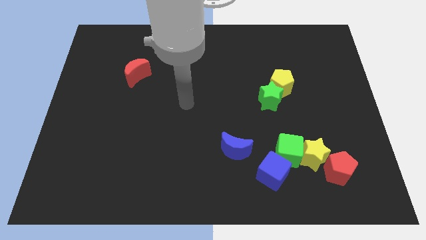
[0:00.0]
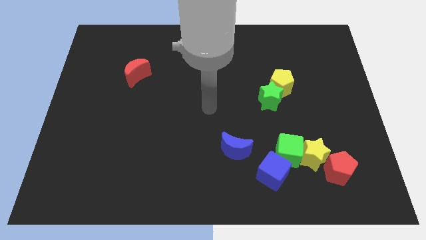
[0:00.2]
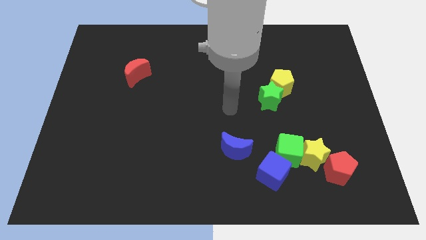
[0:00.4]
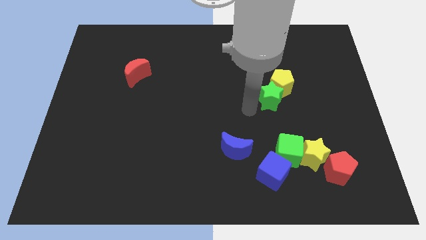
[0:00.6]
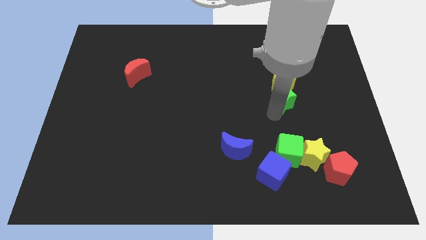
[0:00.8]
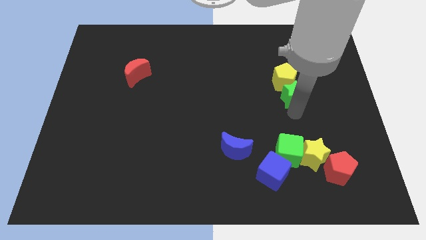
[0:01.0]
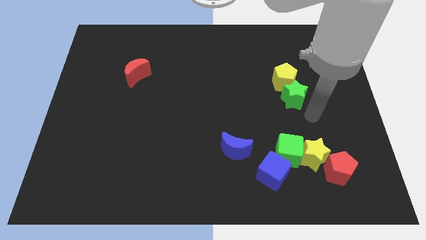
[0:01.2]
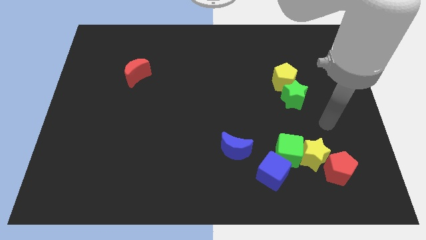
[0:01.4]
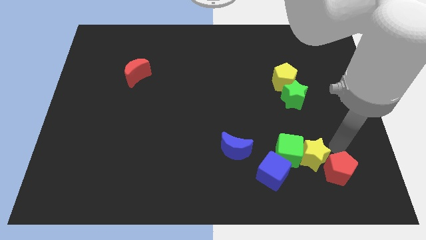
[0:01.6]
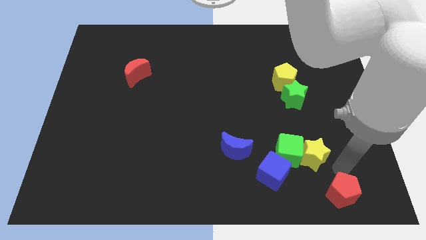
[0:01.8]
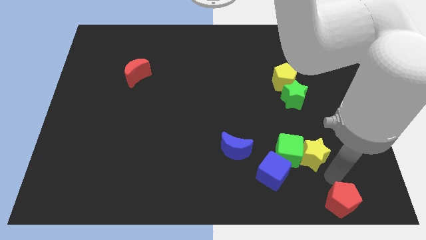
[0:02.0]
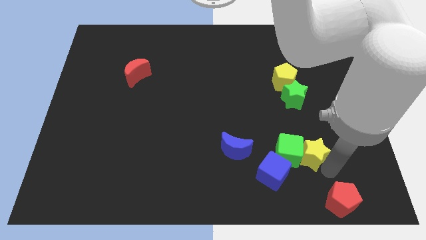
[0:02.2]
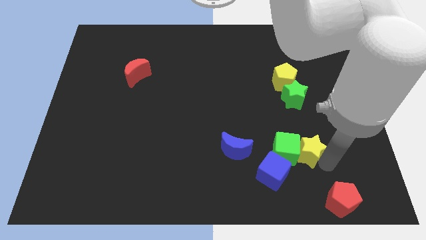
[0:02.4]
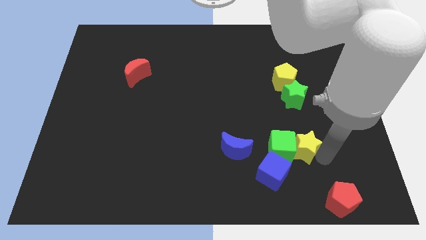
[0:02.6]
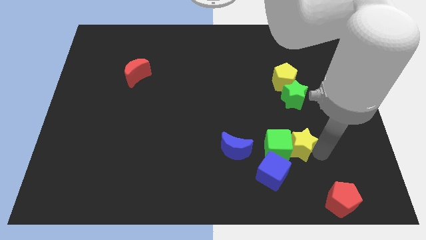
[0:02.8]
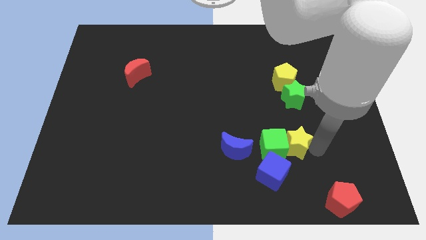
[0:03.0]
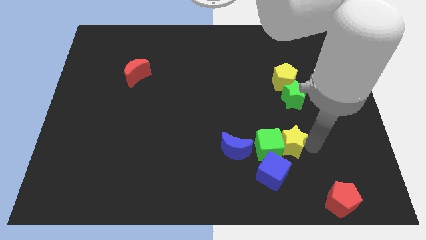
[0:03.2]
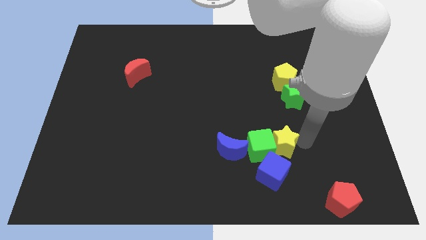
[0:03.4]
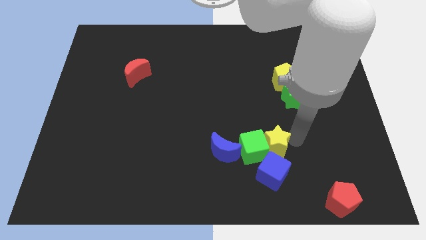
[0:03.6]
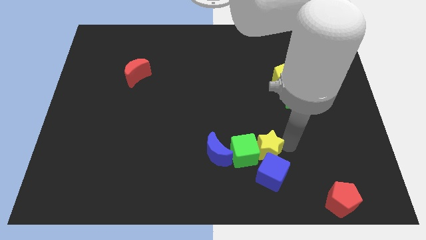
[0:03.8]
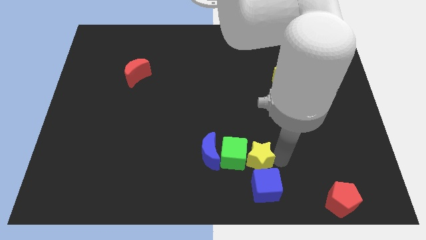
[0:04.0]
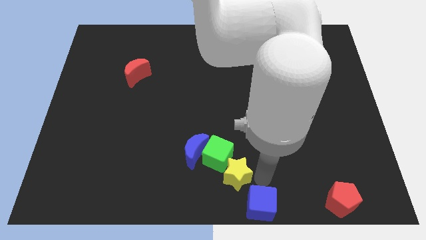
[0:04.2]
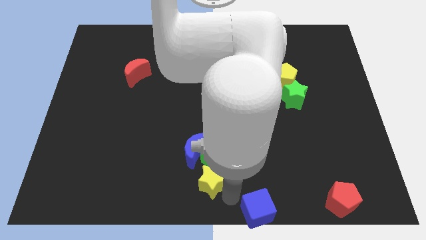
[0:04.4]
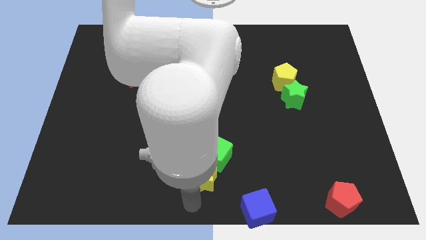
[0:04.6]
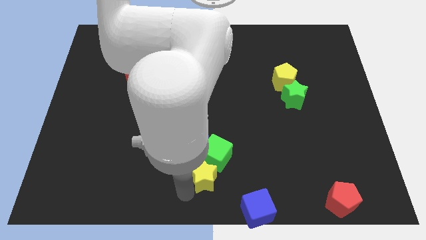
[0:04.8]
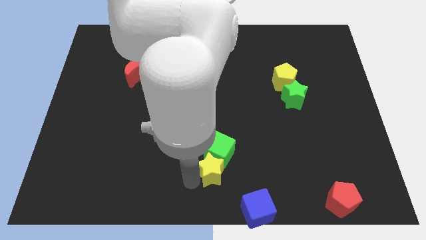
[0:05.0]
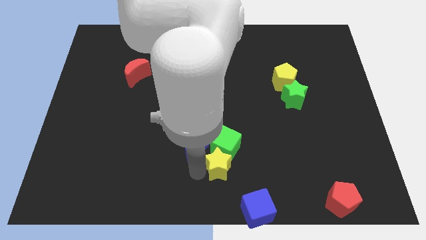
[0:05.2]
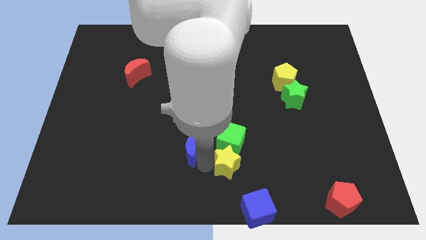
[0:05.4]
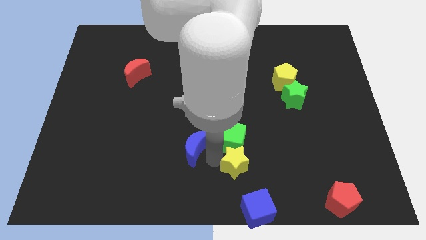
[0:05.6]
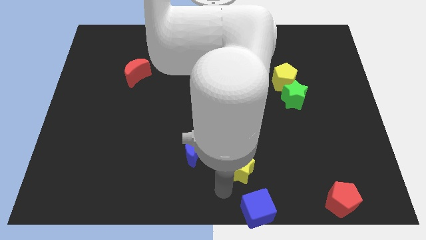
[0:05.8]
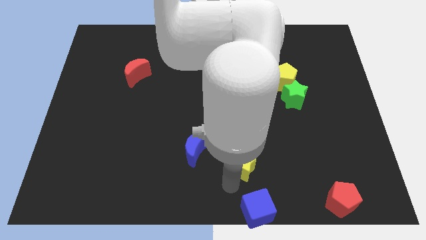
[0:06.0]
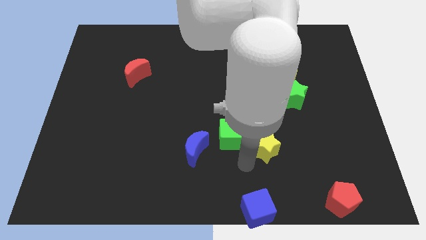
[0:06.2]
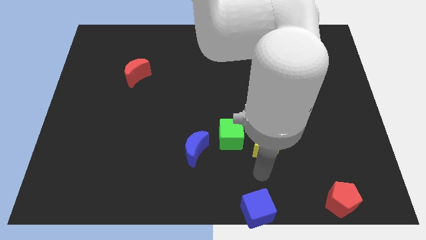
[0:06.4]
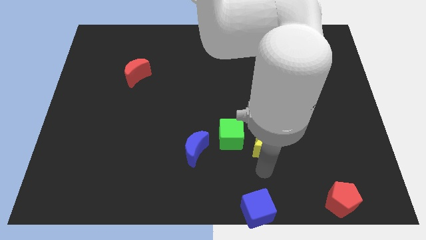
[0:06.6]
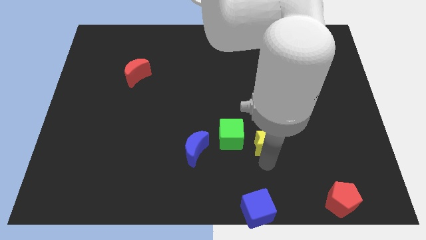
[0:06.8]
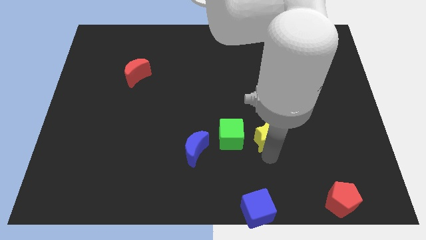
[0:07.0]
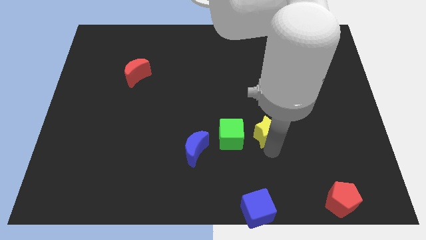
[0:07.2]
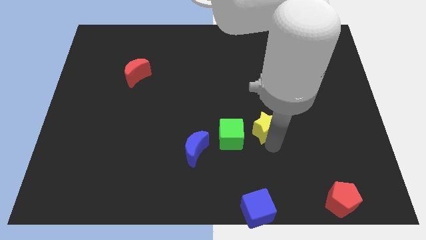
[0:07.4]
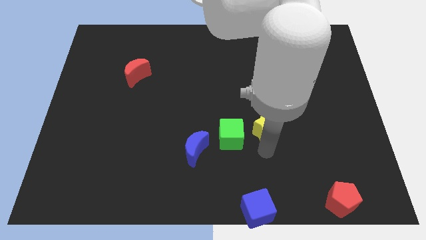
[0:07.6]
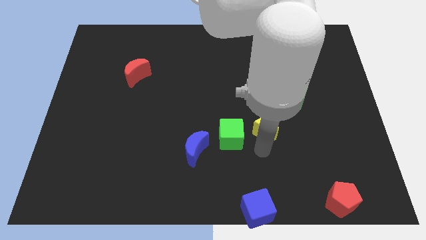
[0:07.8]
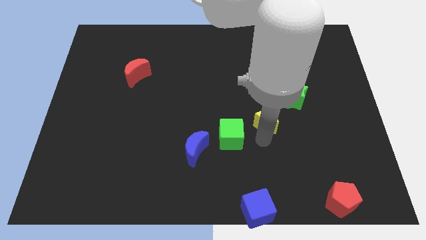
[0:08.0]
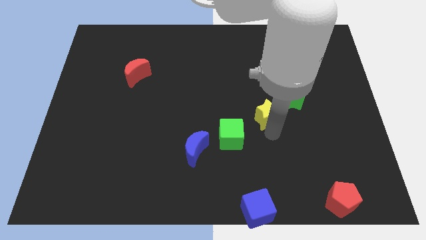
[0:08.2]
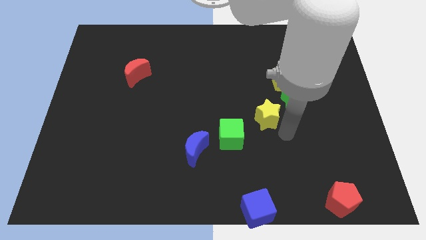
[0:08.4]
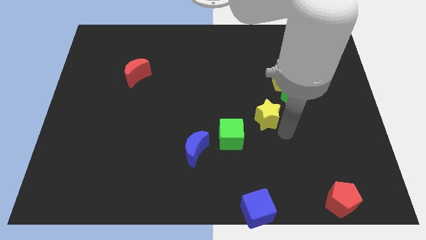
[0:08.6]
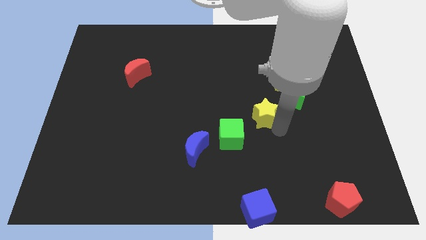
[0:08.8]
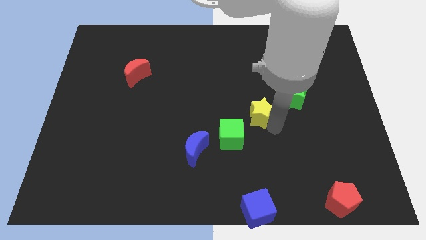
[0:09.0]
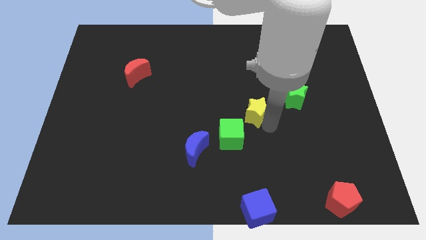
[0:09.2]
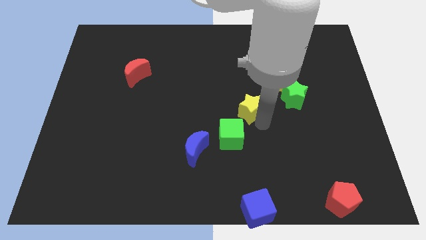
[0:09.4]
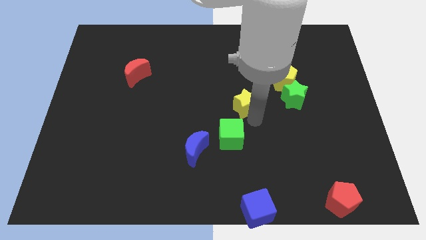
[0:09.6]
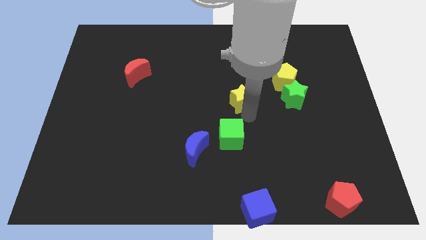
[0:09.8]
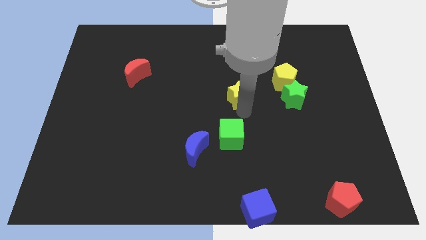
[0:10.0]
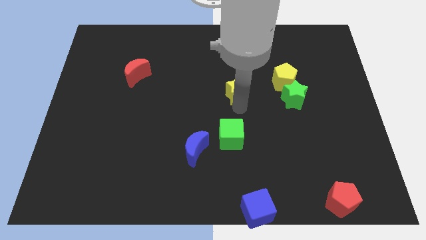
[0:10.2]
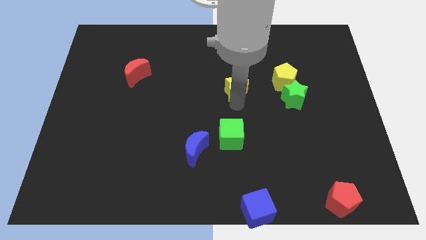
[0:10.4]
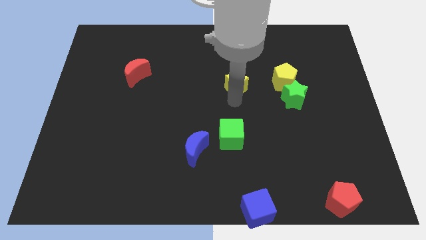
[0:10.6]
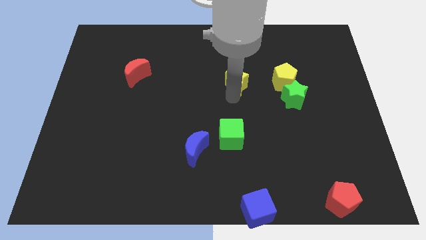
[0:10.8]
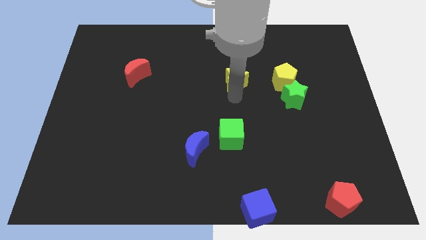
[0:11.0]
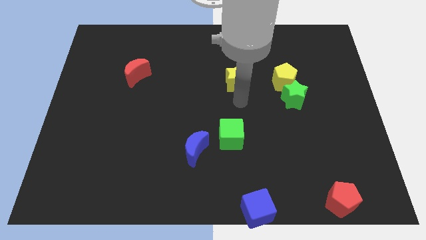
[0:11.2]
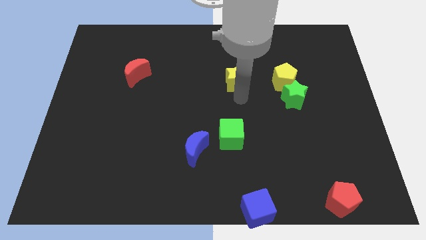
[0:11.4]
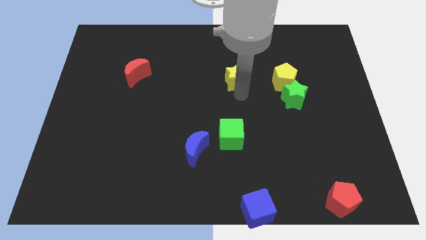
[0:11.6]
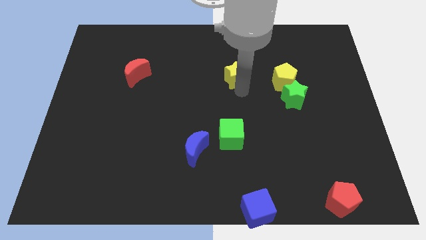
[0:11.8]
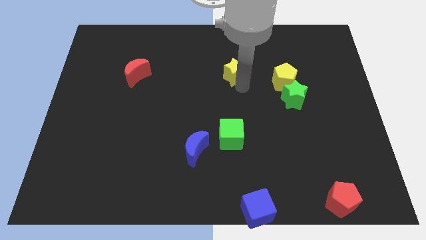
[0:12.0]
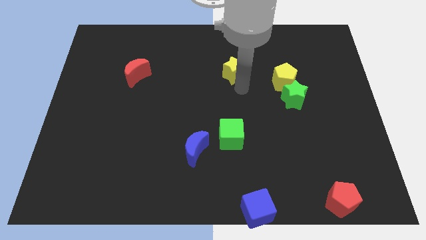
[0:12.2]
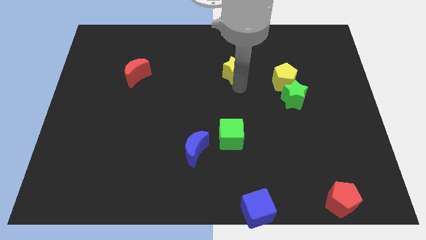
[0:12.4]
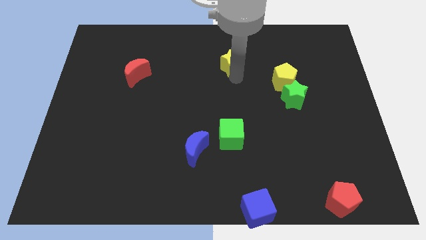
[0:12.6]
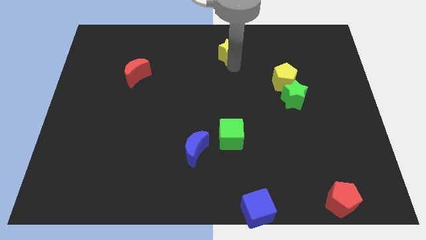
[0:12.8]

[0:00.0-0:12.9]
put the yellow star to the top side
